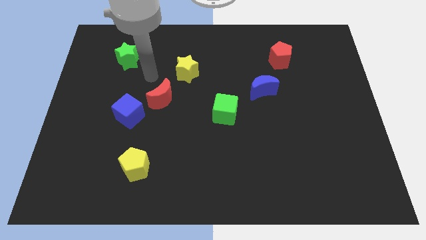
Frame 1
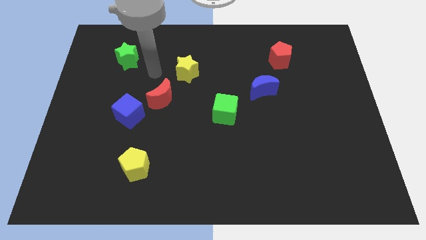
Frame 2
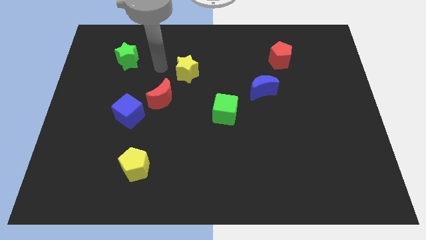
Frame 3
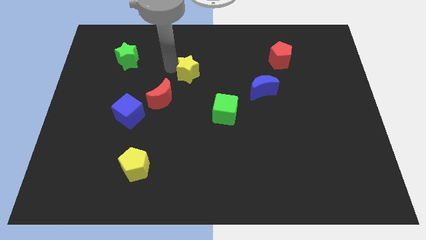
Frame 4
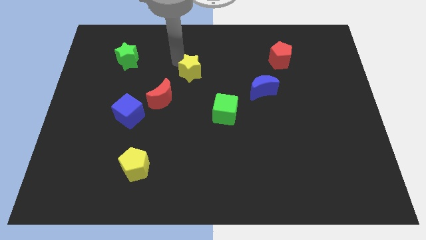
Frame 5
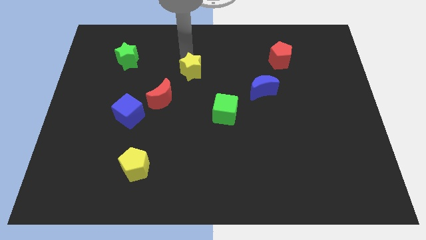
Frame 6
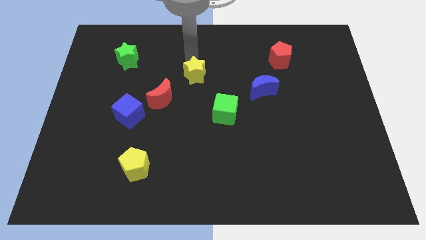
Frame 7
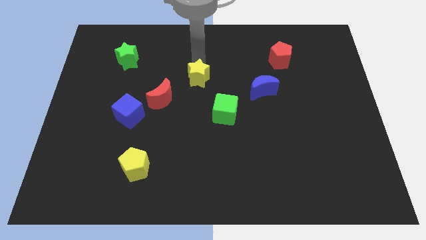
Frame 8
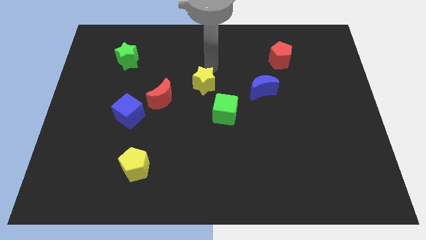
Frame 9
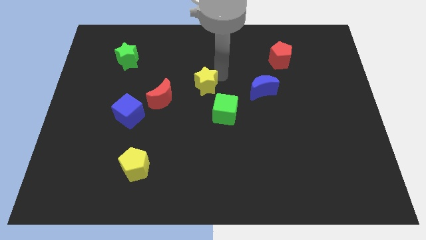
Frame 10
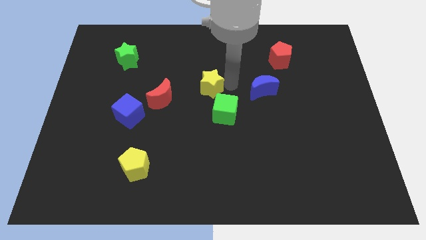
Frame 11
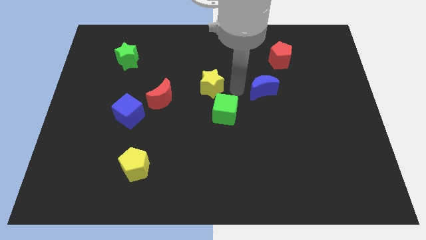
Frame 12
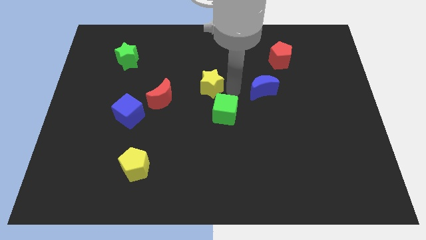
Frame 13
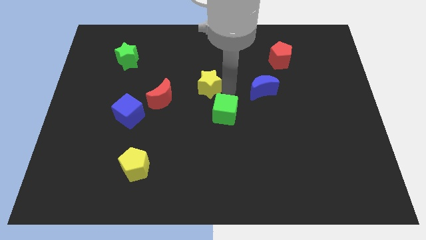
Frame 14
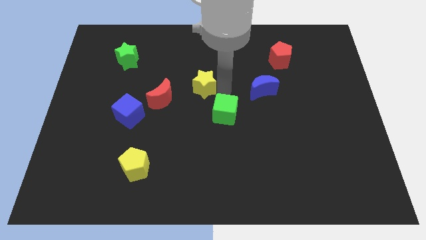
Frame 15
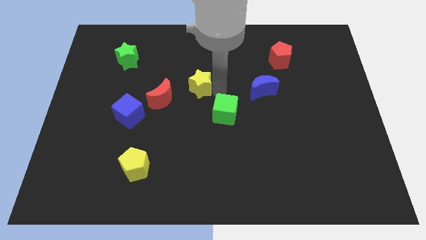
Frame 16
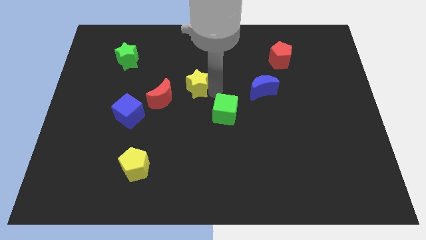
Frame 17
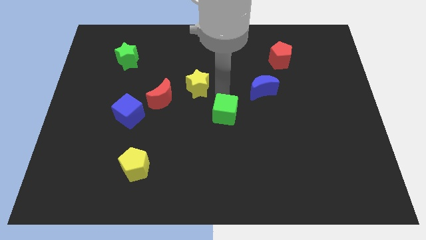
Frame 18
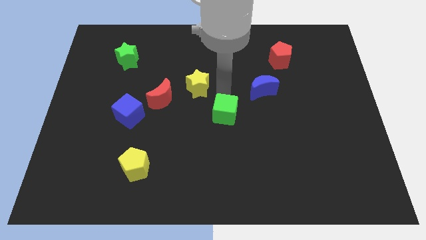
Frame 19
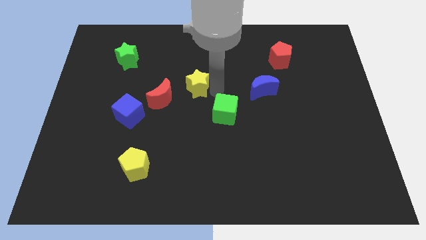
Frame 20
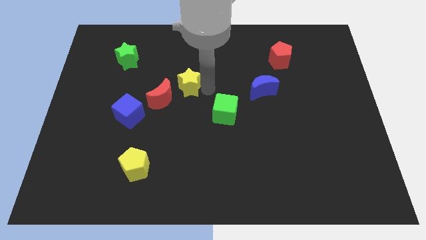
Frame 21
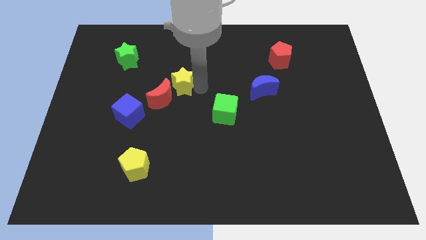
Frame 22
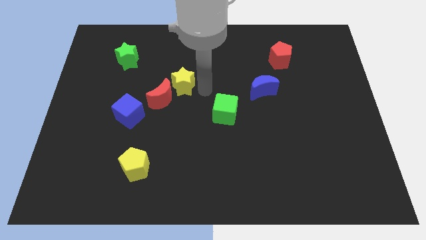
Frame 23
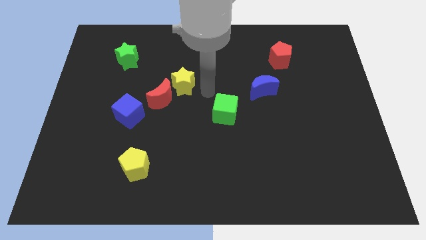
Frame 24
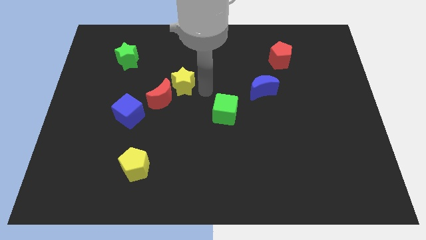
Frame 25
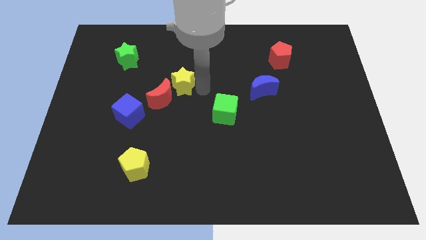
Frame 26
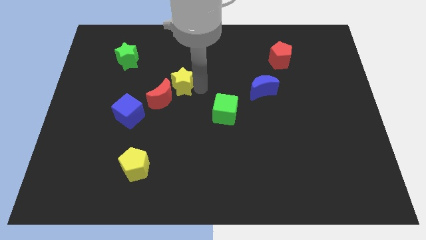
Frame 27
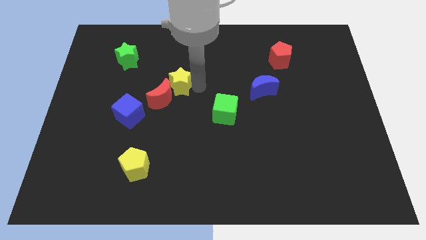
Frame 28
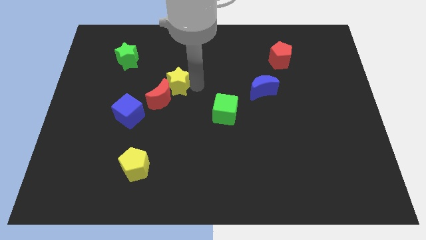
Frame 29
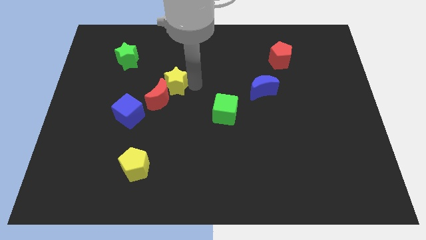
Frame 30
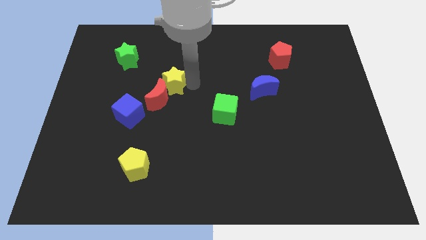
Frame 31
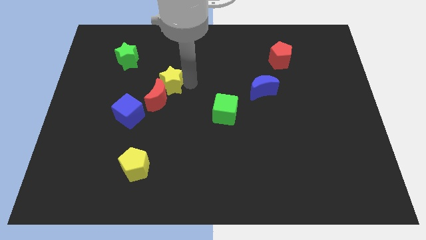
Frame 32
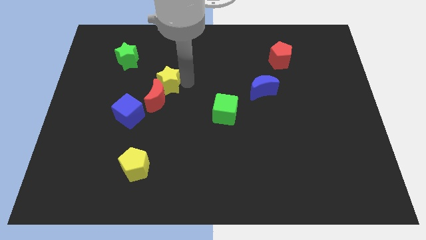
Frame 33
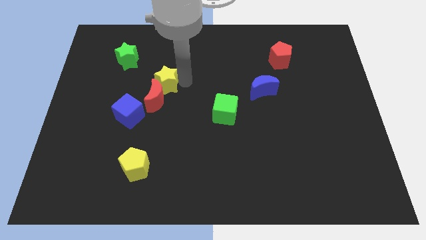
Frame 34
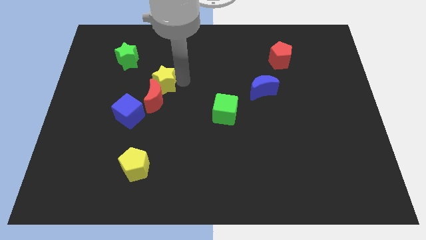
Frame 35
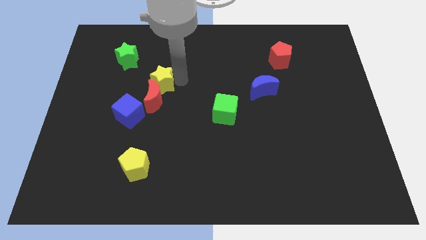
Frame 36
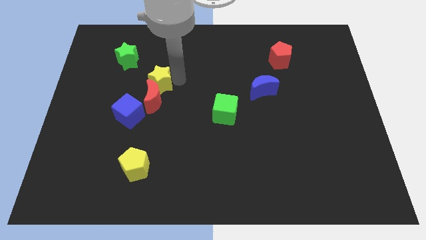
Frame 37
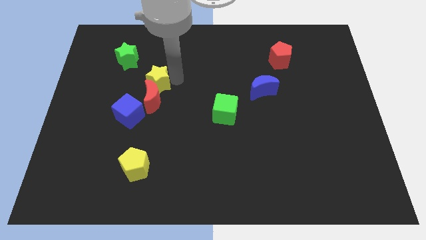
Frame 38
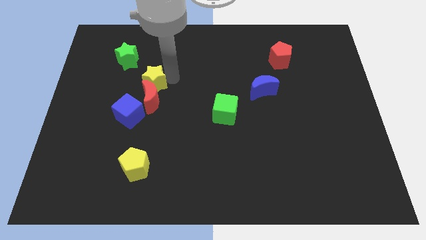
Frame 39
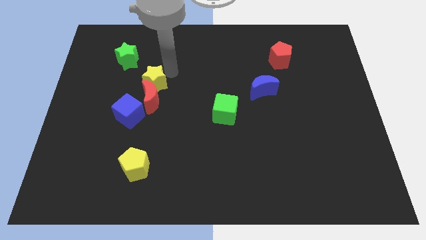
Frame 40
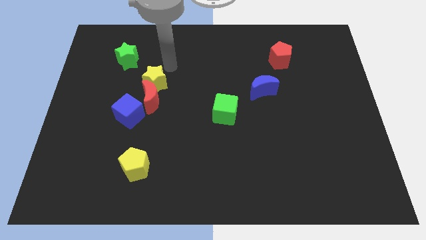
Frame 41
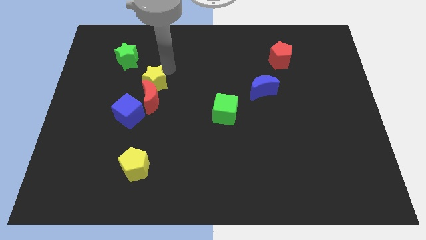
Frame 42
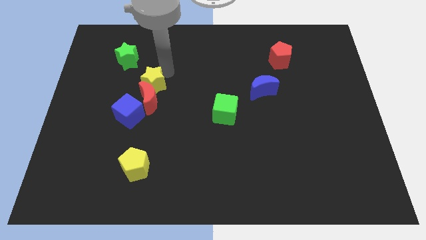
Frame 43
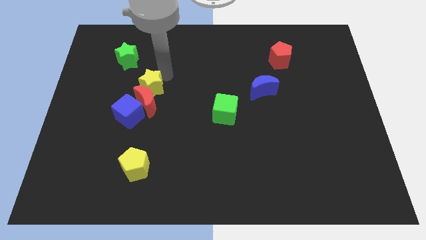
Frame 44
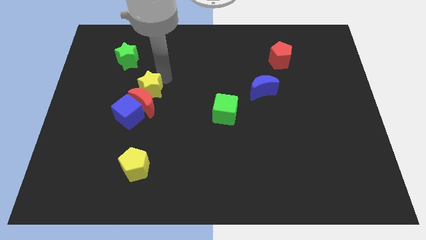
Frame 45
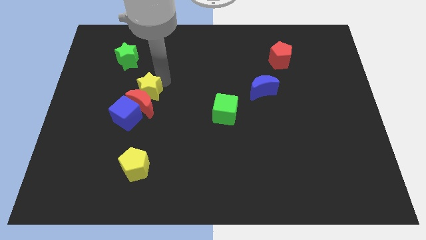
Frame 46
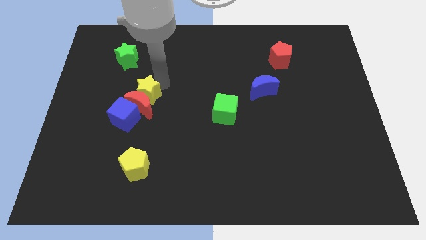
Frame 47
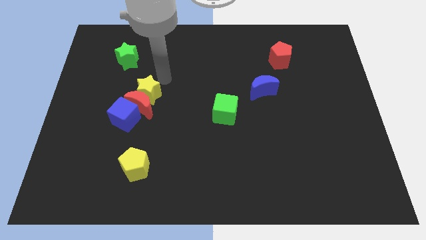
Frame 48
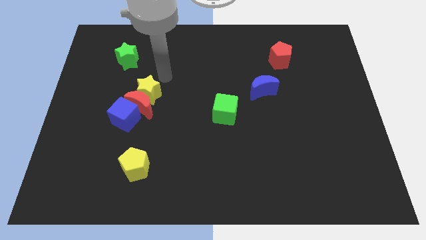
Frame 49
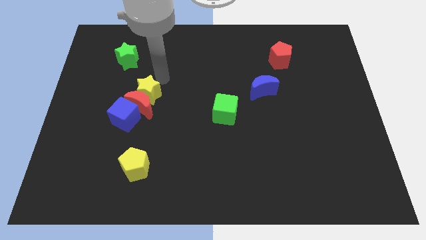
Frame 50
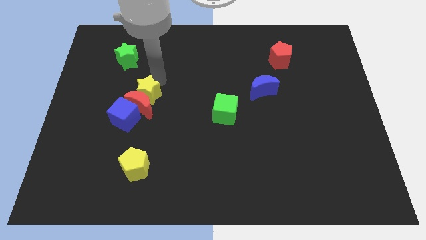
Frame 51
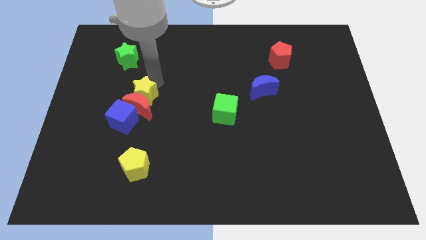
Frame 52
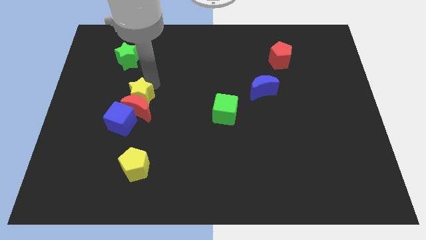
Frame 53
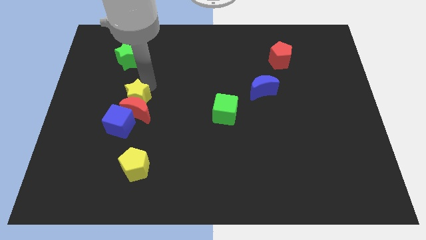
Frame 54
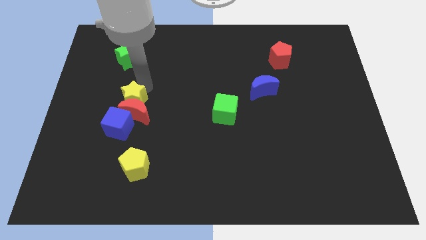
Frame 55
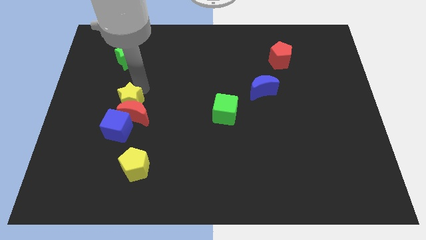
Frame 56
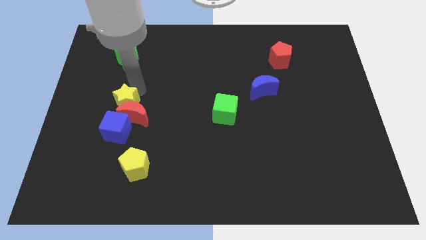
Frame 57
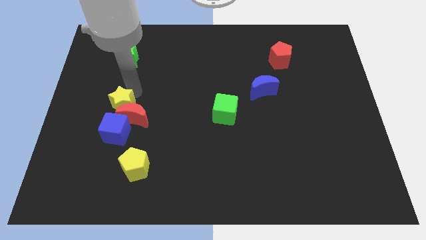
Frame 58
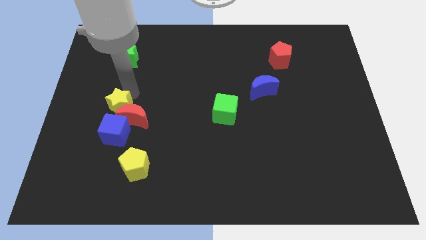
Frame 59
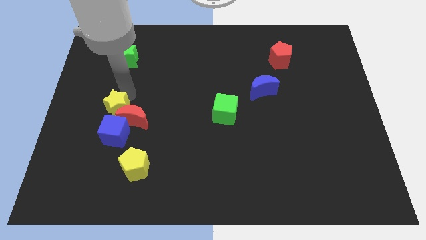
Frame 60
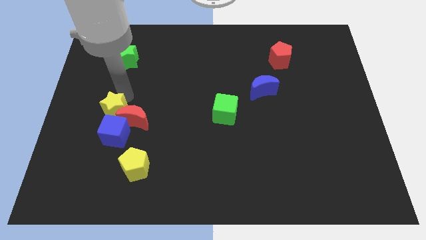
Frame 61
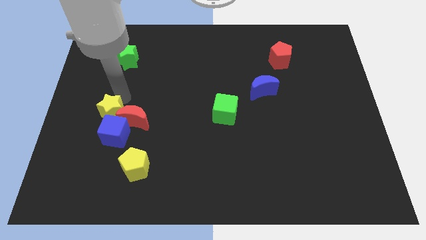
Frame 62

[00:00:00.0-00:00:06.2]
move the yellow star towards the blue cube
